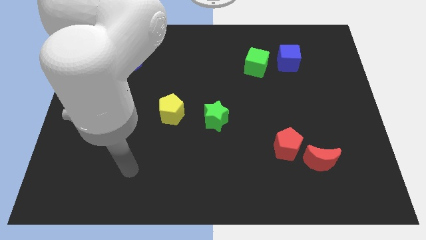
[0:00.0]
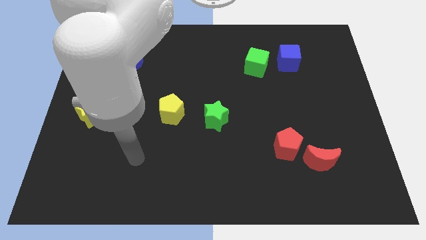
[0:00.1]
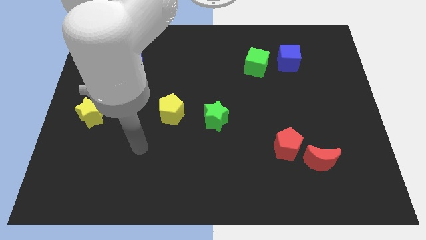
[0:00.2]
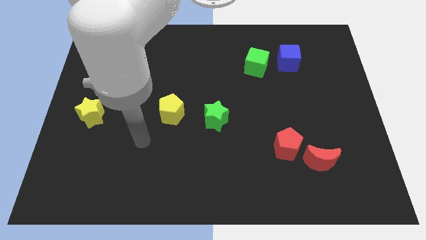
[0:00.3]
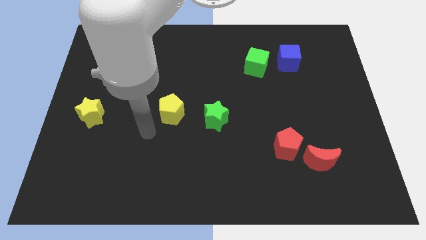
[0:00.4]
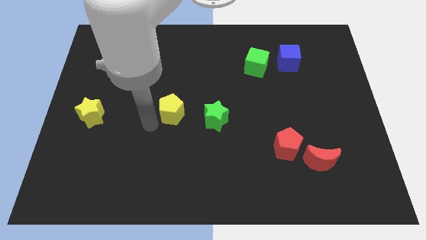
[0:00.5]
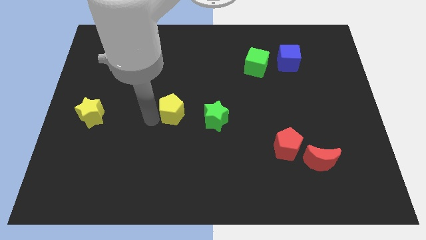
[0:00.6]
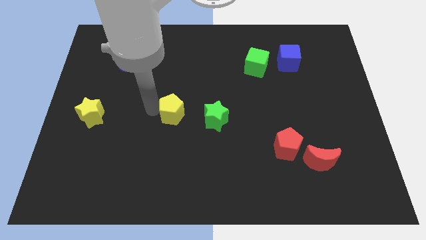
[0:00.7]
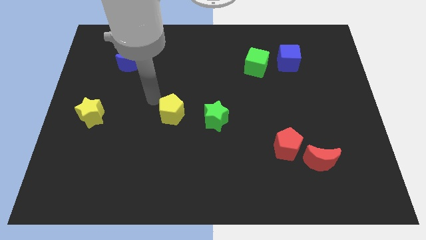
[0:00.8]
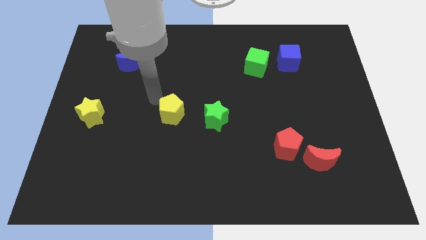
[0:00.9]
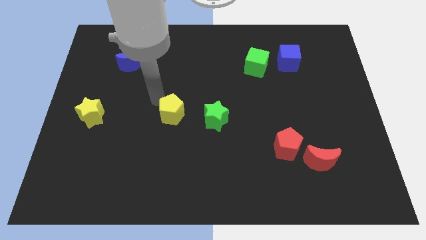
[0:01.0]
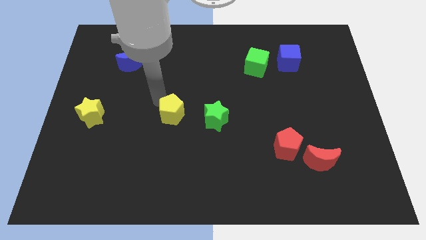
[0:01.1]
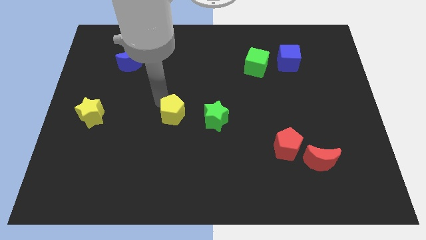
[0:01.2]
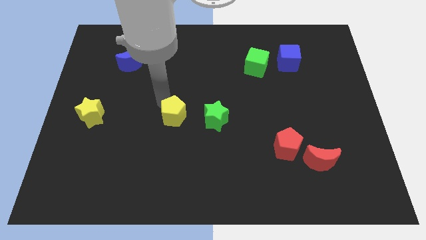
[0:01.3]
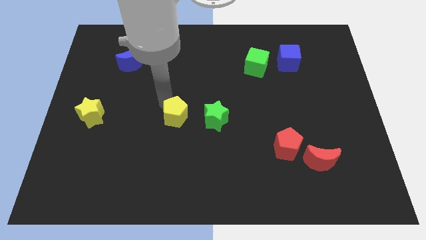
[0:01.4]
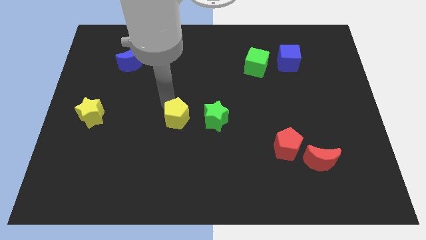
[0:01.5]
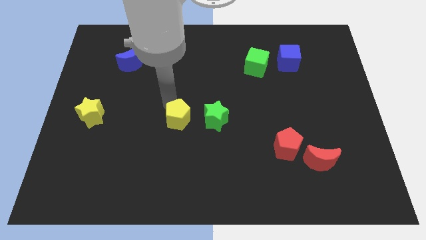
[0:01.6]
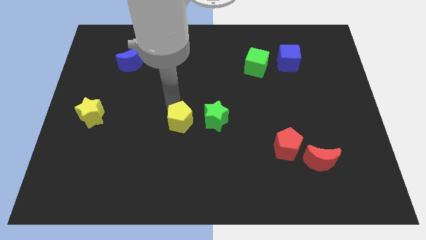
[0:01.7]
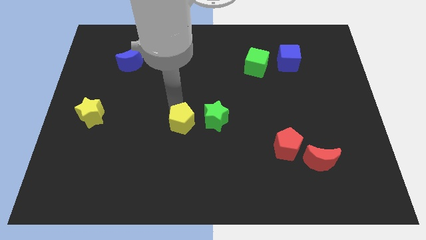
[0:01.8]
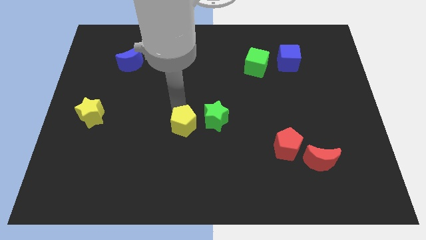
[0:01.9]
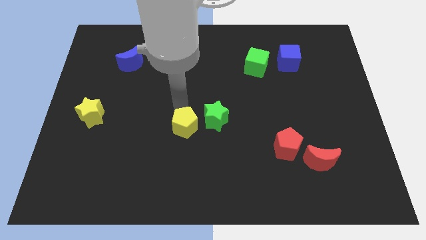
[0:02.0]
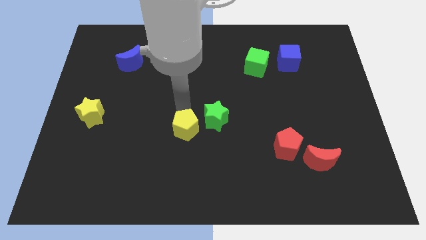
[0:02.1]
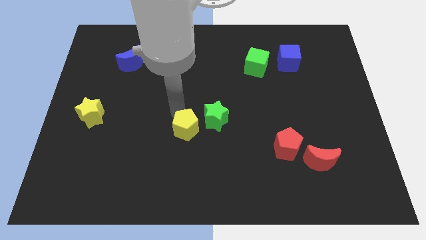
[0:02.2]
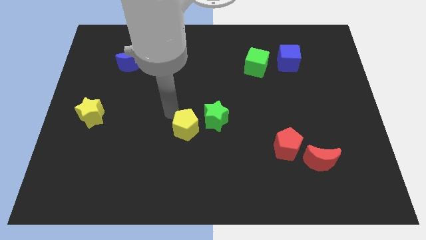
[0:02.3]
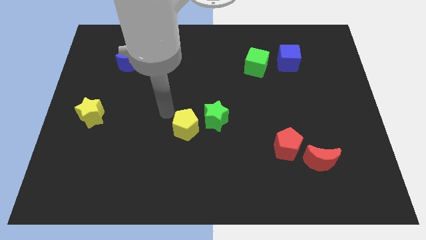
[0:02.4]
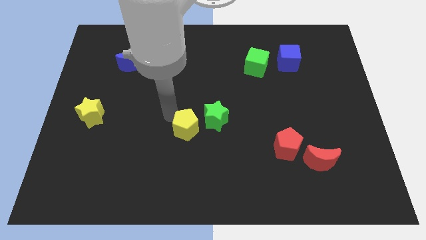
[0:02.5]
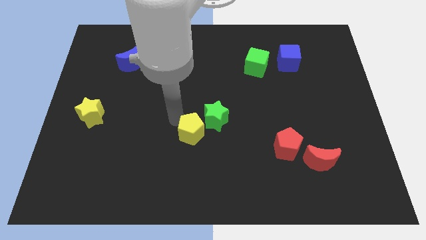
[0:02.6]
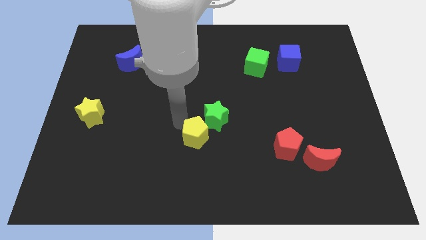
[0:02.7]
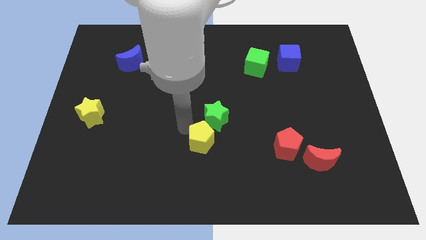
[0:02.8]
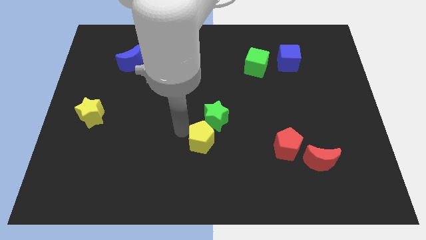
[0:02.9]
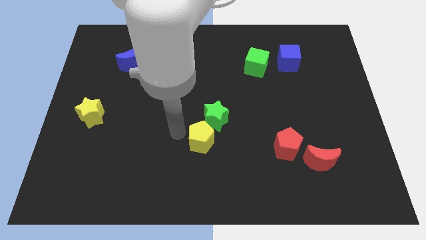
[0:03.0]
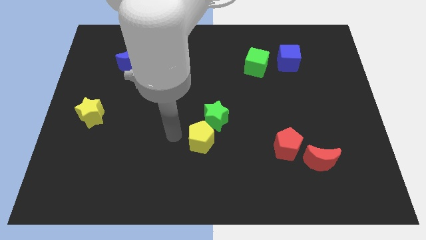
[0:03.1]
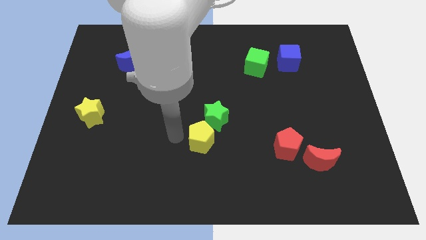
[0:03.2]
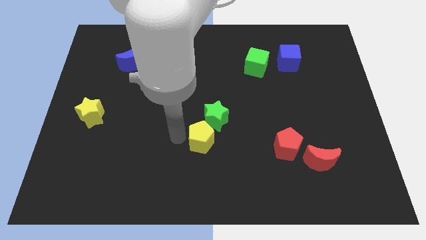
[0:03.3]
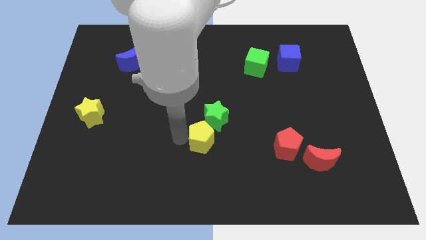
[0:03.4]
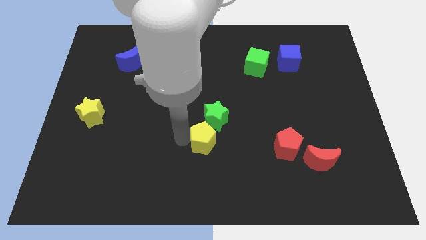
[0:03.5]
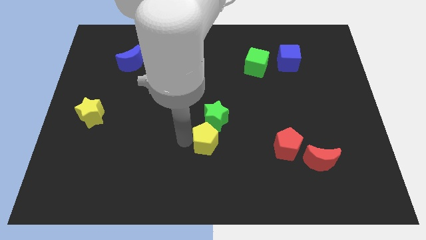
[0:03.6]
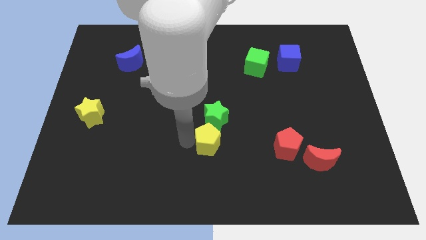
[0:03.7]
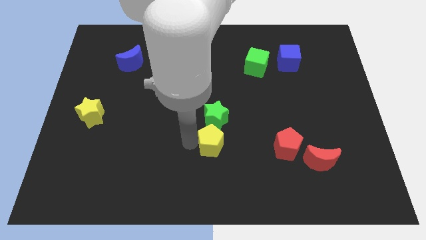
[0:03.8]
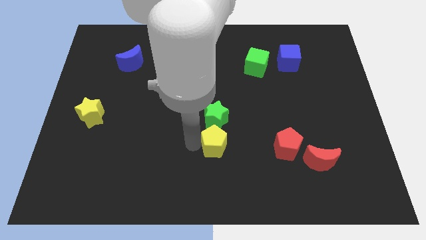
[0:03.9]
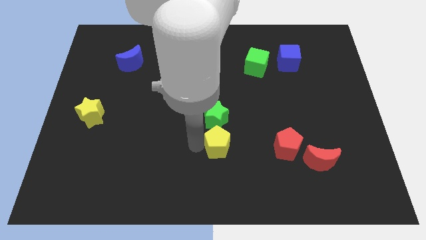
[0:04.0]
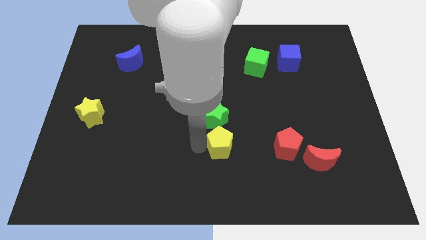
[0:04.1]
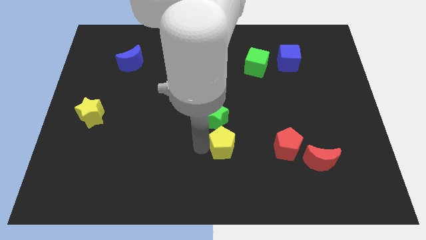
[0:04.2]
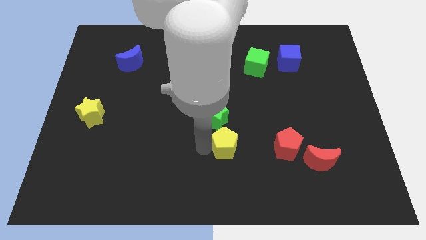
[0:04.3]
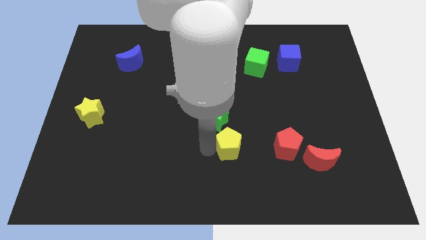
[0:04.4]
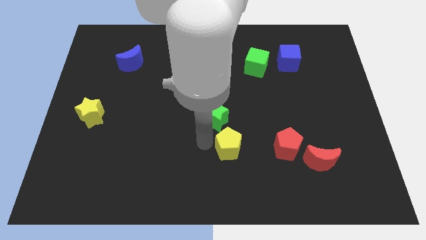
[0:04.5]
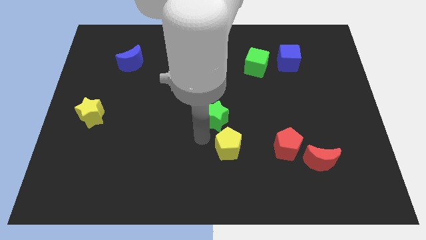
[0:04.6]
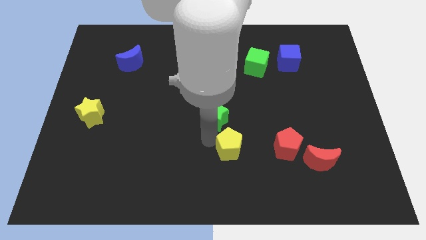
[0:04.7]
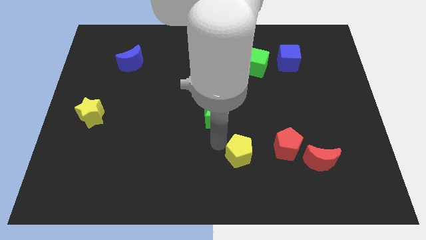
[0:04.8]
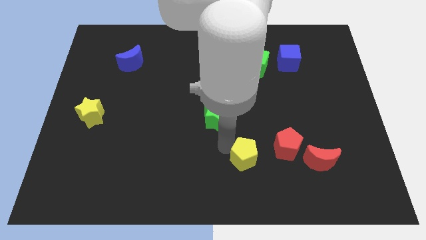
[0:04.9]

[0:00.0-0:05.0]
push the yellow pentagon just left of the red moon

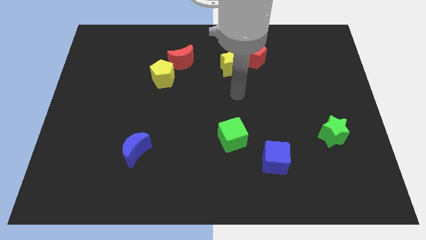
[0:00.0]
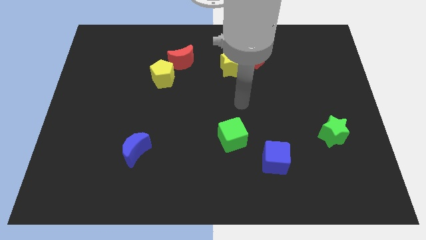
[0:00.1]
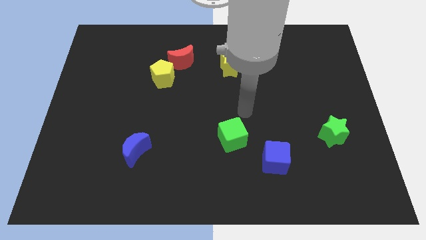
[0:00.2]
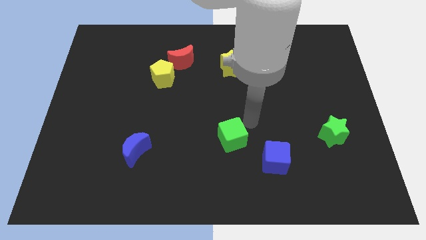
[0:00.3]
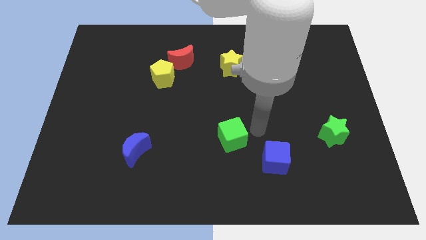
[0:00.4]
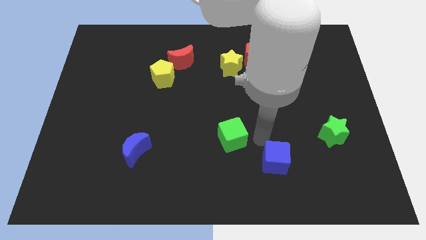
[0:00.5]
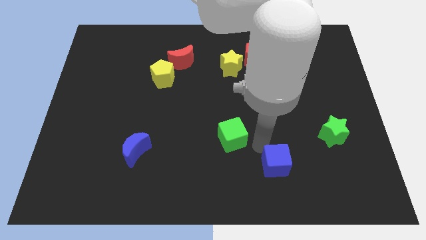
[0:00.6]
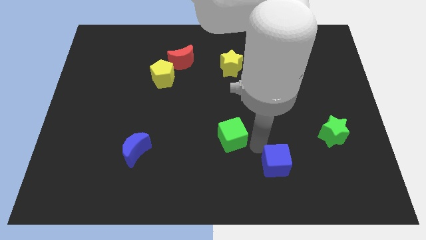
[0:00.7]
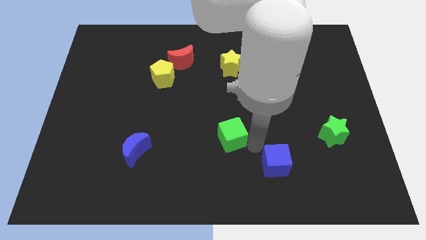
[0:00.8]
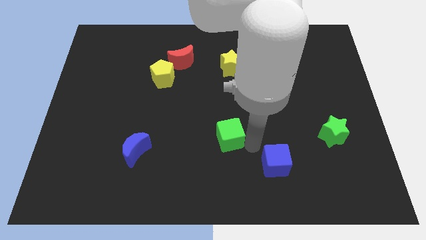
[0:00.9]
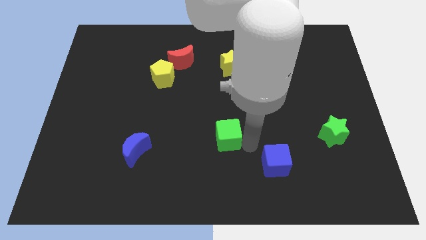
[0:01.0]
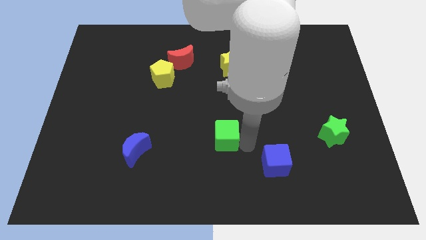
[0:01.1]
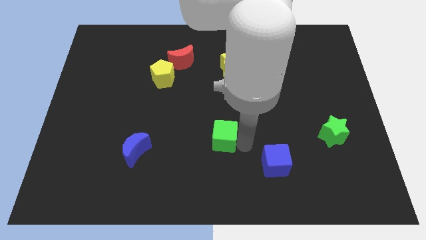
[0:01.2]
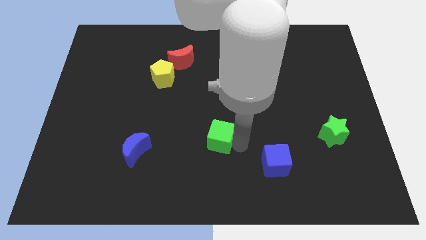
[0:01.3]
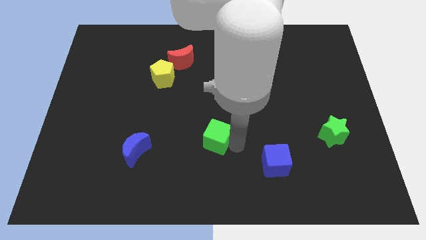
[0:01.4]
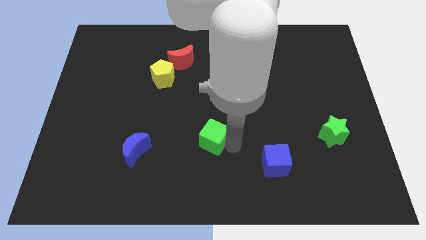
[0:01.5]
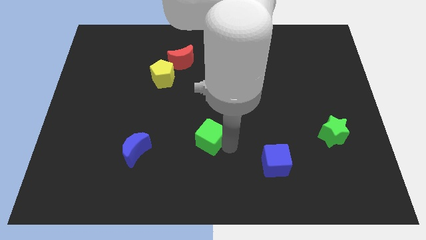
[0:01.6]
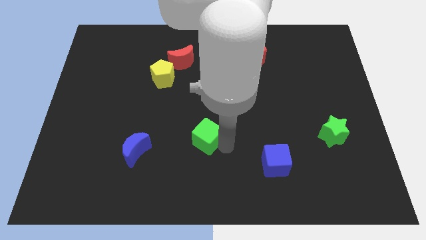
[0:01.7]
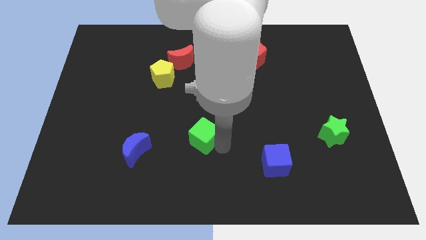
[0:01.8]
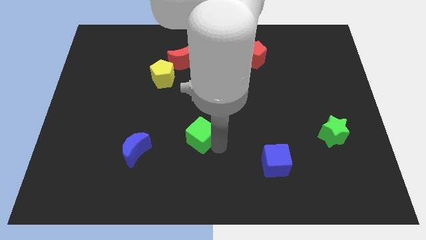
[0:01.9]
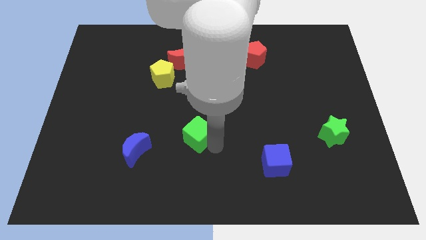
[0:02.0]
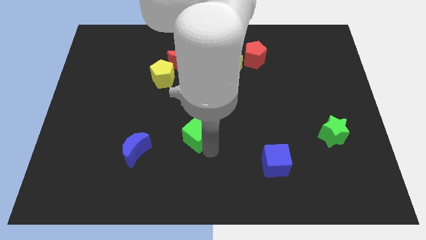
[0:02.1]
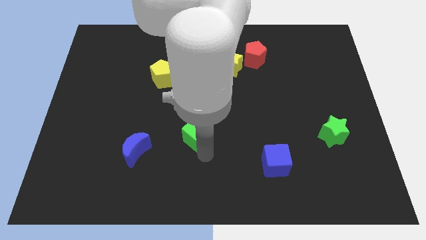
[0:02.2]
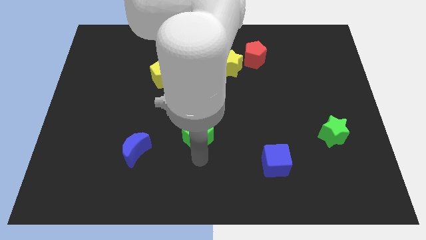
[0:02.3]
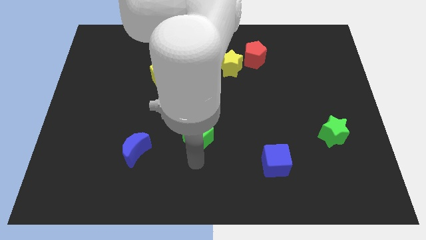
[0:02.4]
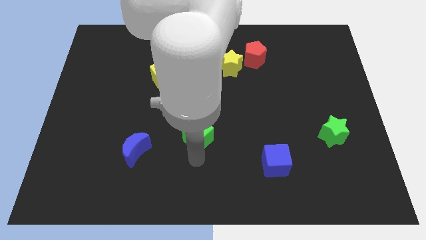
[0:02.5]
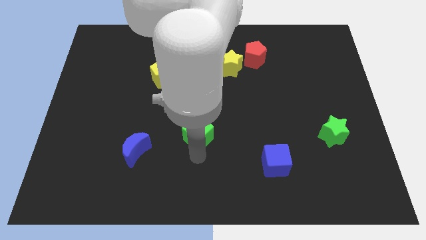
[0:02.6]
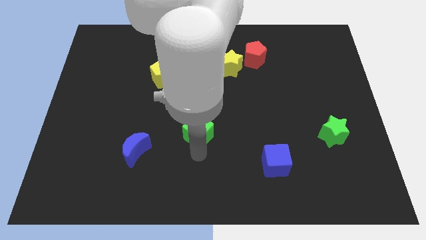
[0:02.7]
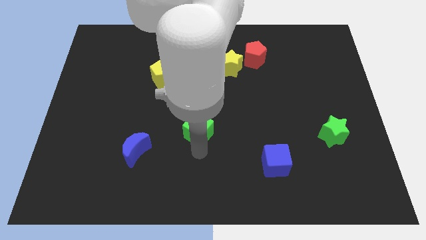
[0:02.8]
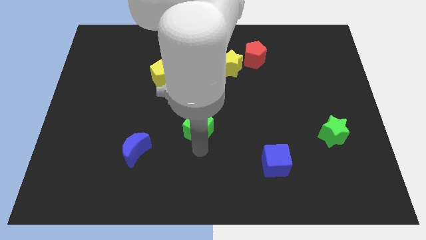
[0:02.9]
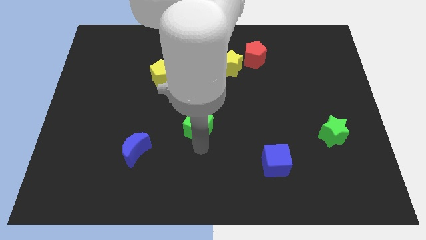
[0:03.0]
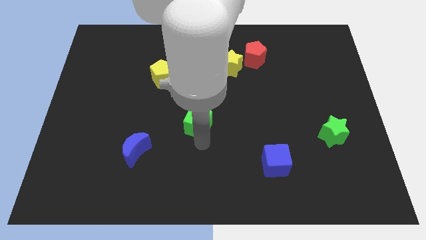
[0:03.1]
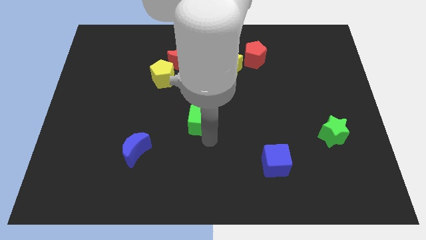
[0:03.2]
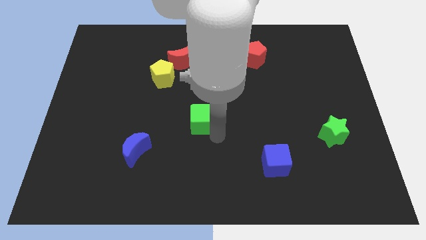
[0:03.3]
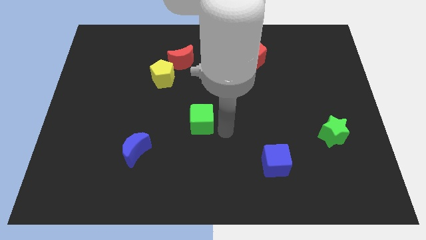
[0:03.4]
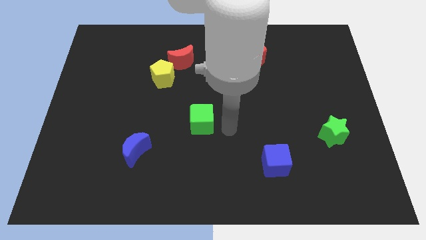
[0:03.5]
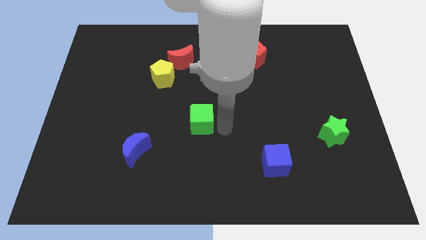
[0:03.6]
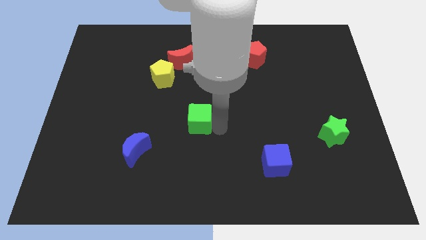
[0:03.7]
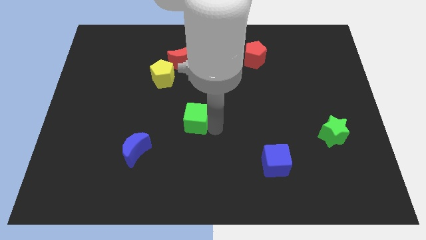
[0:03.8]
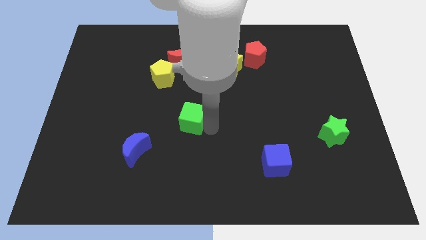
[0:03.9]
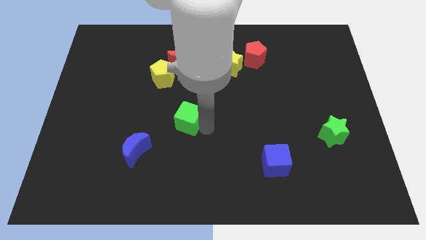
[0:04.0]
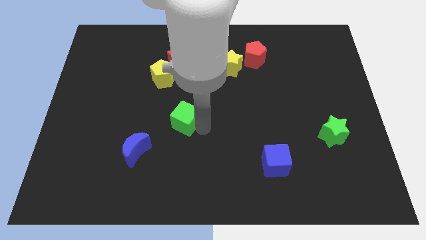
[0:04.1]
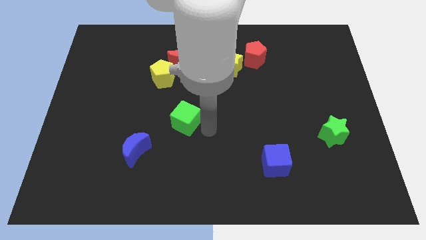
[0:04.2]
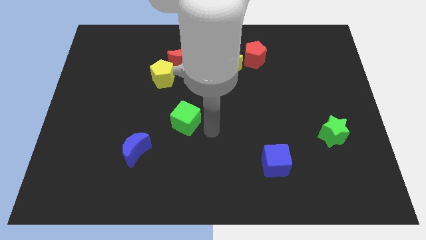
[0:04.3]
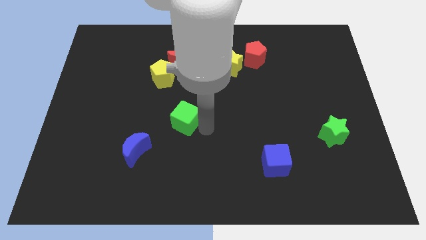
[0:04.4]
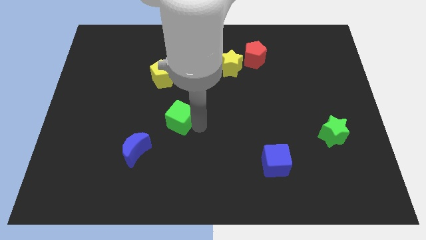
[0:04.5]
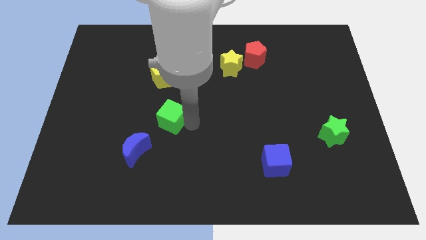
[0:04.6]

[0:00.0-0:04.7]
put the green cube to the bottom of the yellow pentagon
